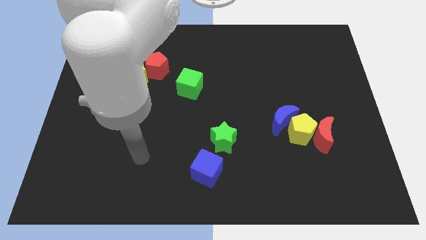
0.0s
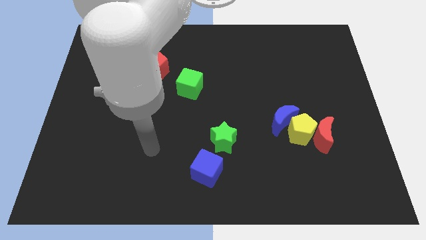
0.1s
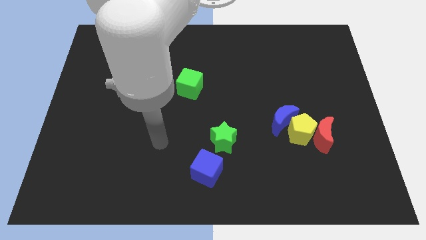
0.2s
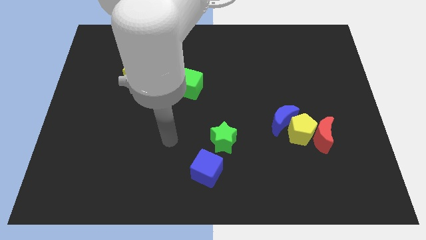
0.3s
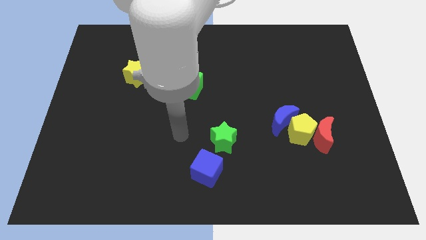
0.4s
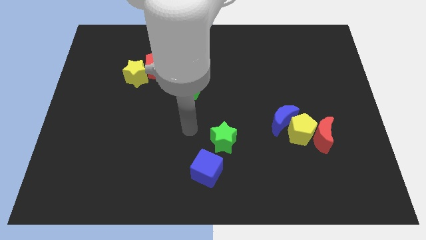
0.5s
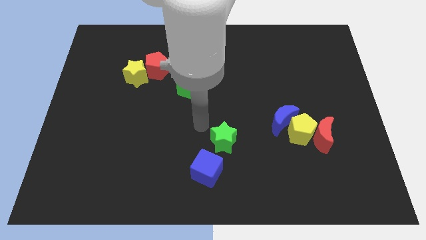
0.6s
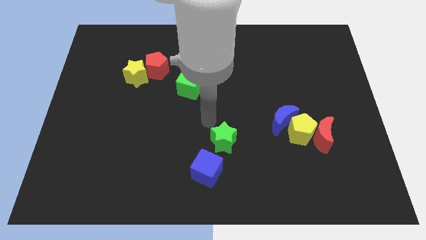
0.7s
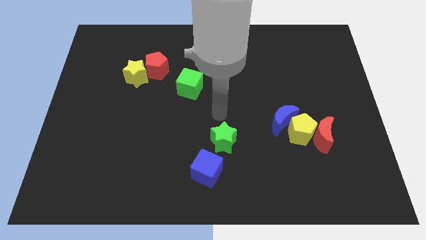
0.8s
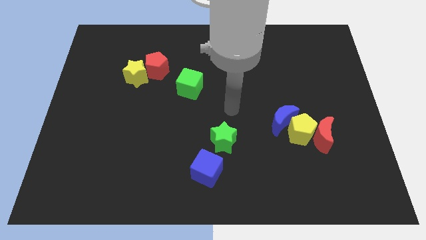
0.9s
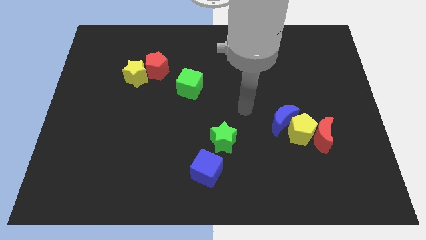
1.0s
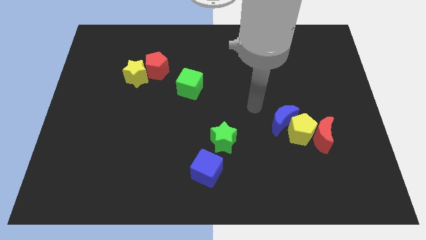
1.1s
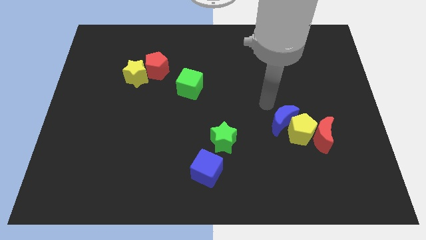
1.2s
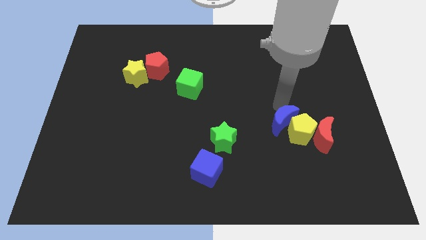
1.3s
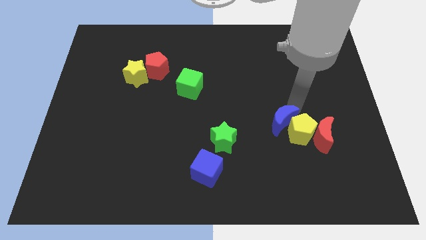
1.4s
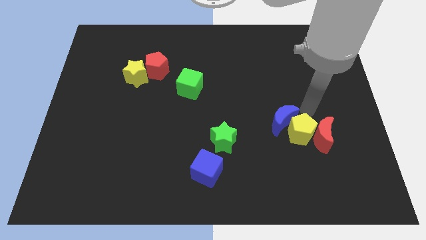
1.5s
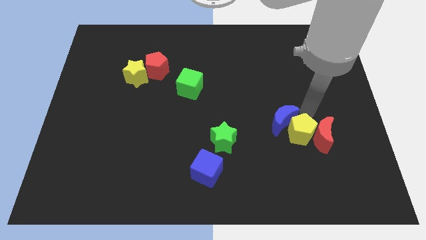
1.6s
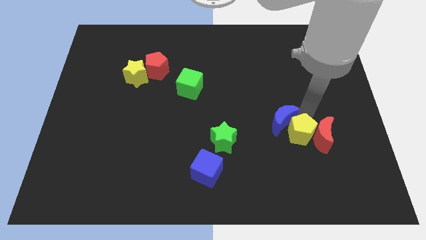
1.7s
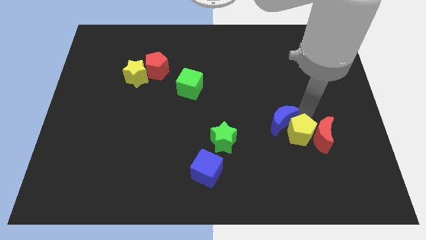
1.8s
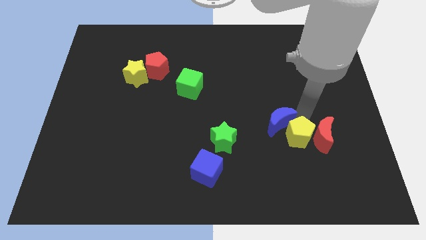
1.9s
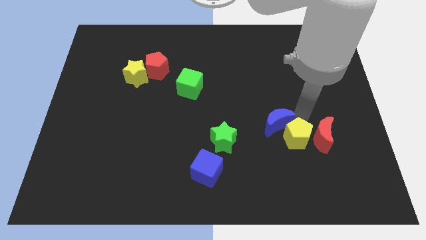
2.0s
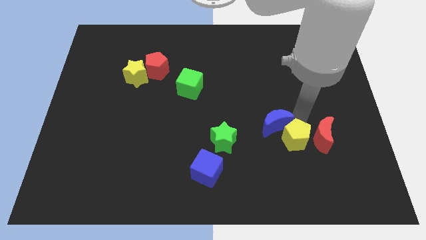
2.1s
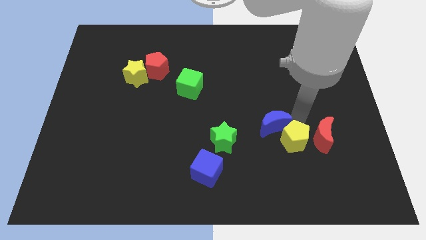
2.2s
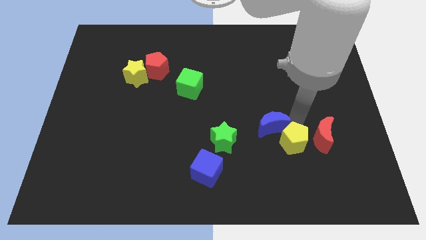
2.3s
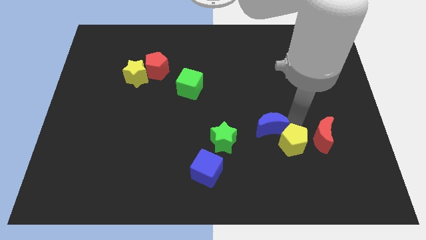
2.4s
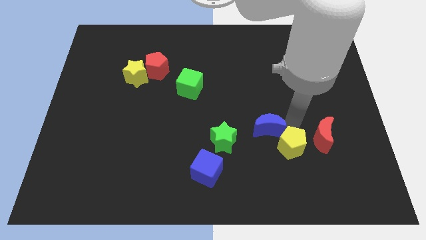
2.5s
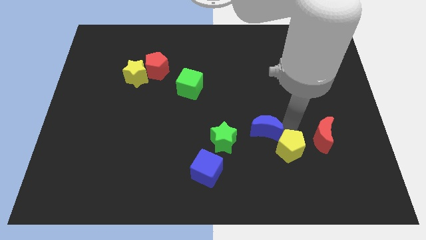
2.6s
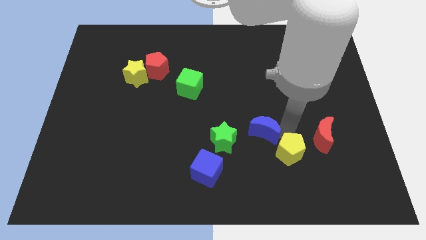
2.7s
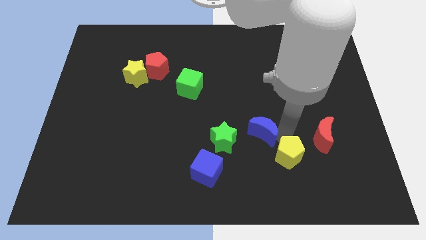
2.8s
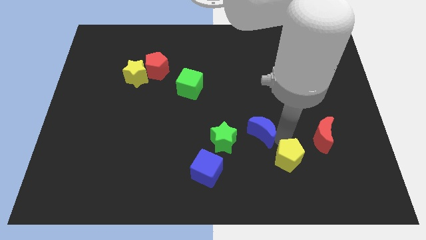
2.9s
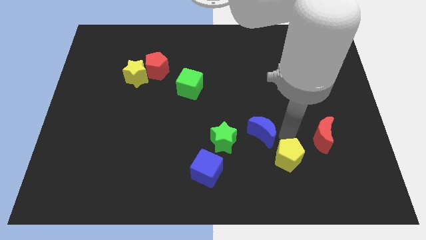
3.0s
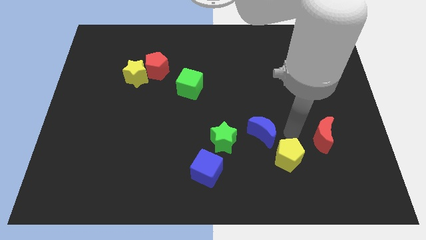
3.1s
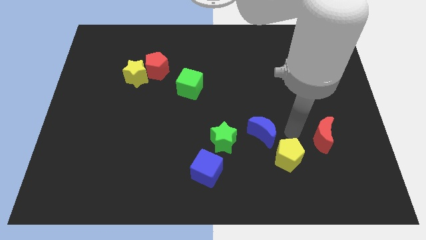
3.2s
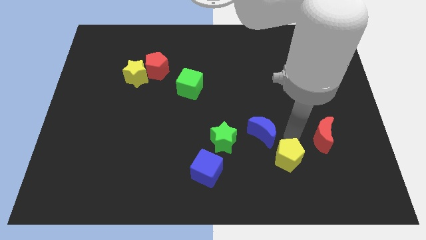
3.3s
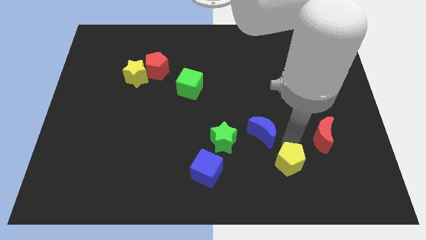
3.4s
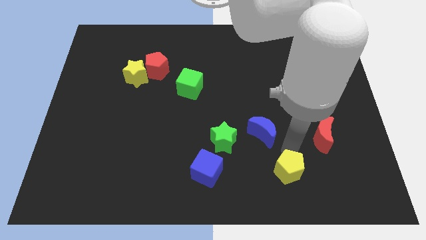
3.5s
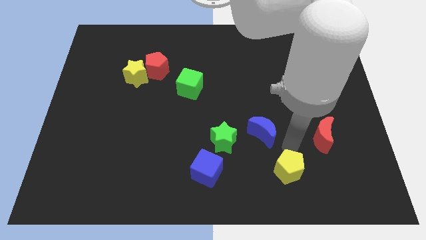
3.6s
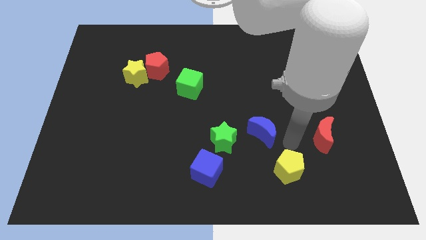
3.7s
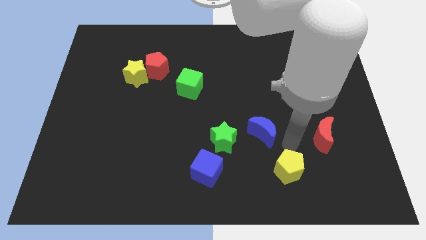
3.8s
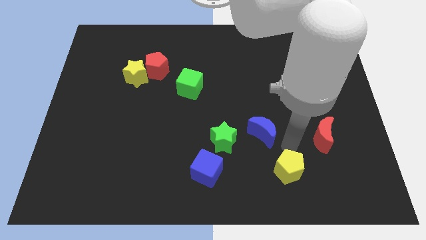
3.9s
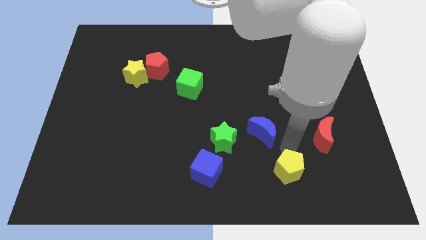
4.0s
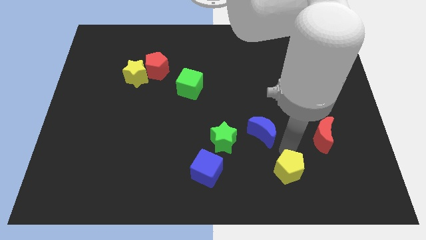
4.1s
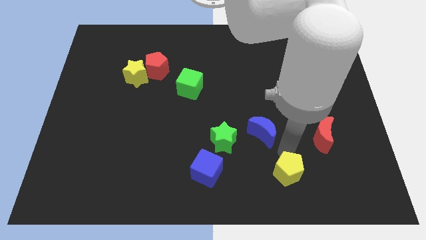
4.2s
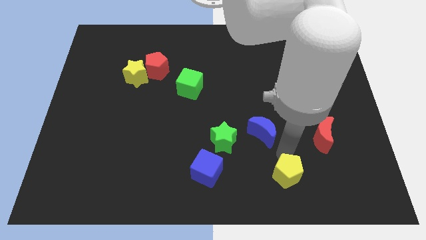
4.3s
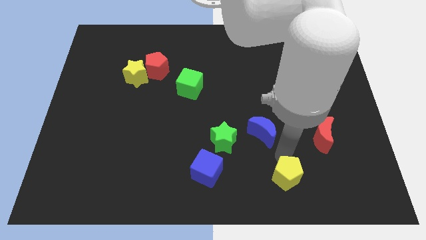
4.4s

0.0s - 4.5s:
separate the yellow pentagon from the blue moon and red moon

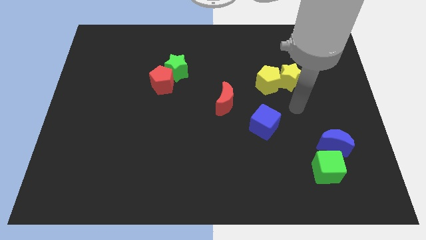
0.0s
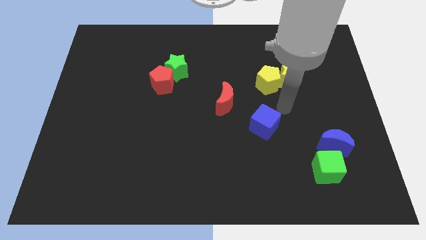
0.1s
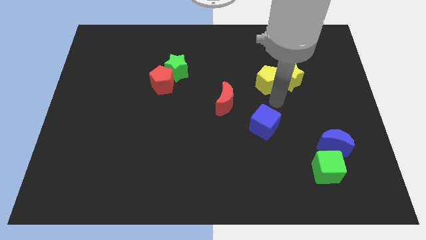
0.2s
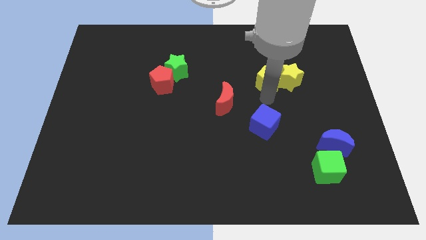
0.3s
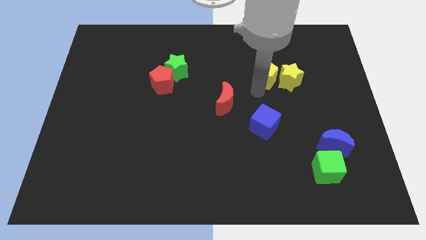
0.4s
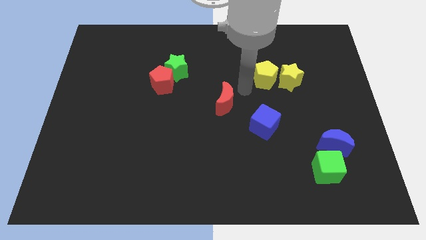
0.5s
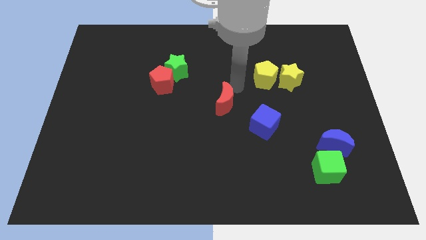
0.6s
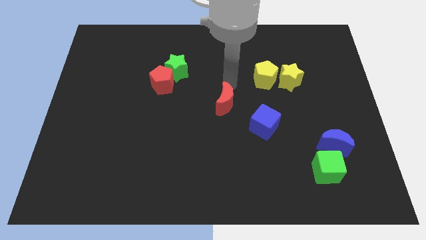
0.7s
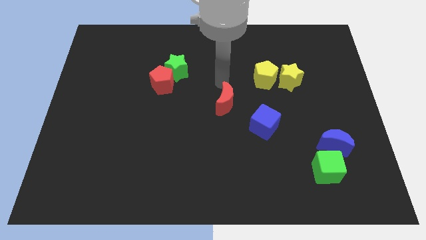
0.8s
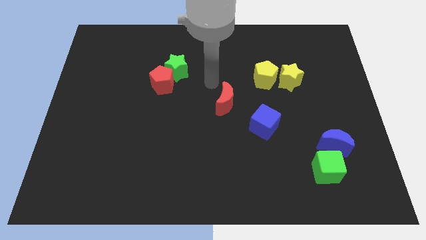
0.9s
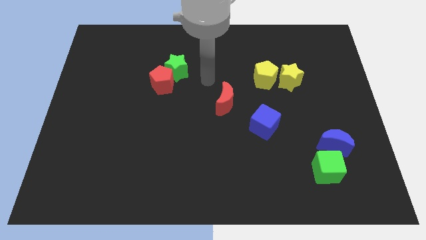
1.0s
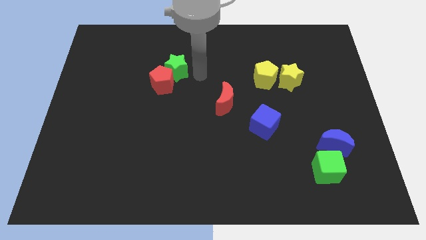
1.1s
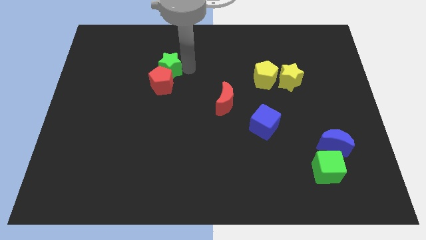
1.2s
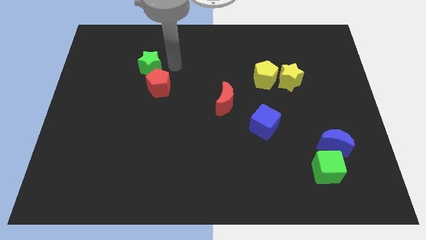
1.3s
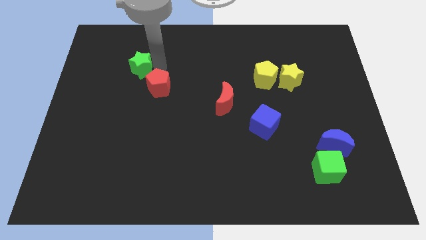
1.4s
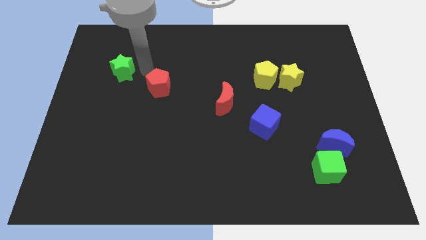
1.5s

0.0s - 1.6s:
move the red pentagon away from the green star

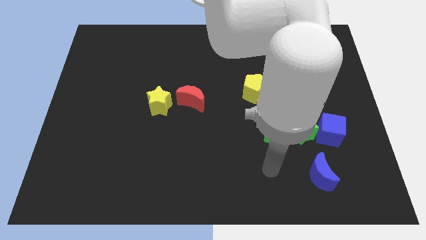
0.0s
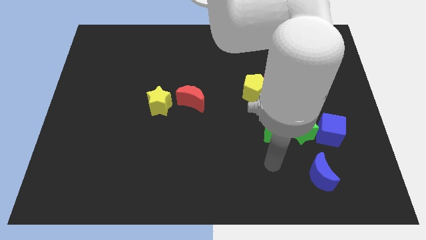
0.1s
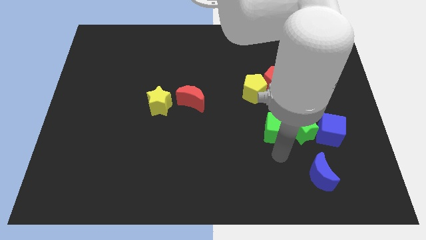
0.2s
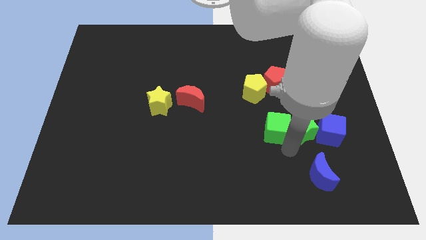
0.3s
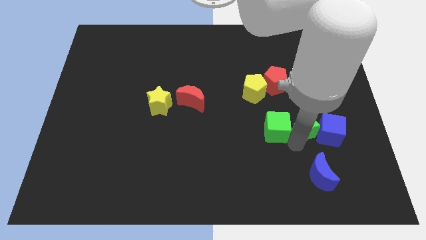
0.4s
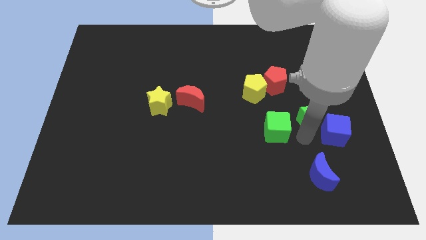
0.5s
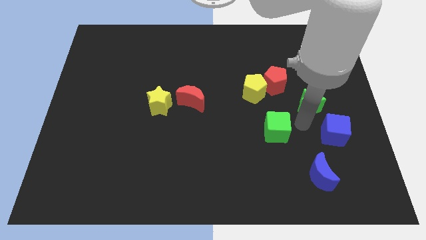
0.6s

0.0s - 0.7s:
move the green cube away from the green star

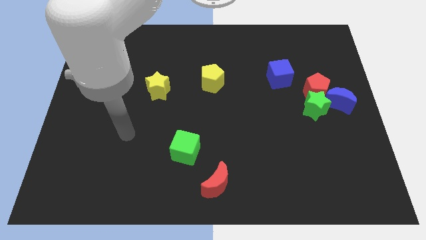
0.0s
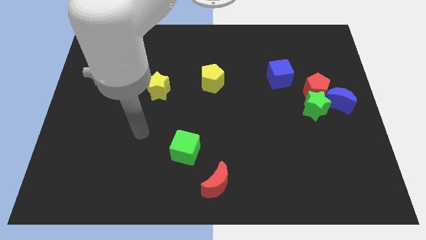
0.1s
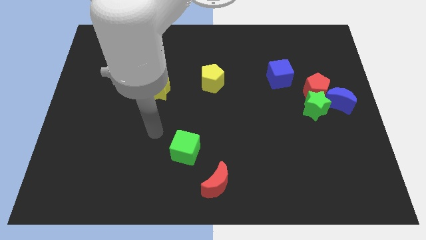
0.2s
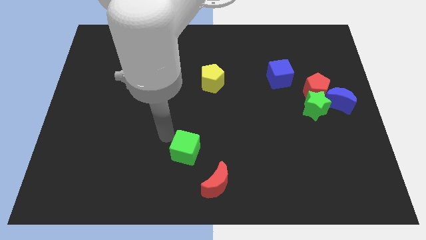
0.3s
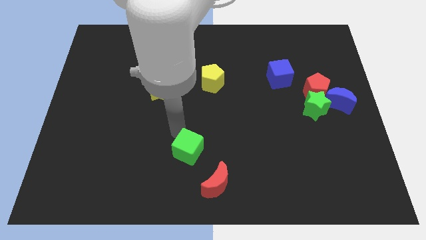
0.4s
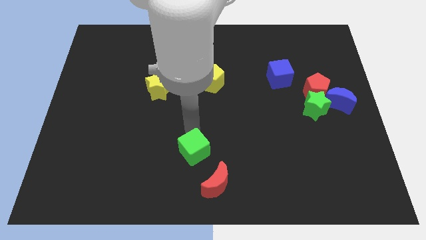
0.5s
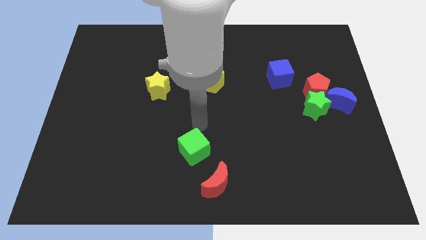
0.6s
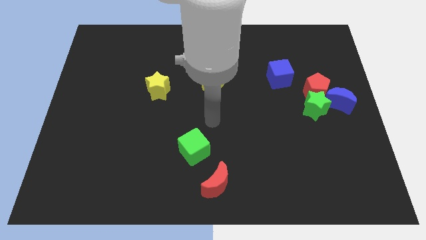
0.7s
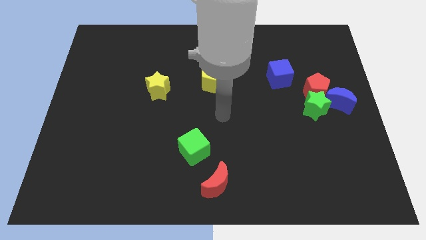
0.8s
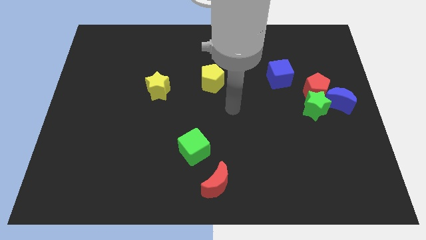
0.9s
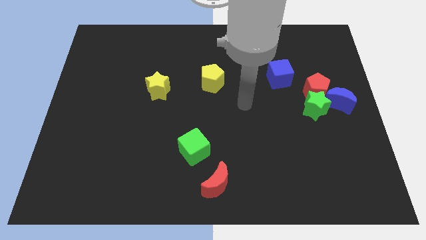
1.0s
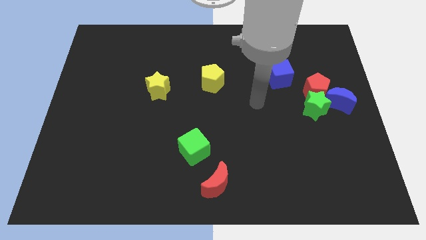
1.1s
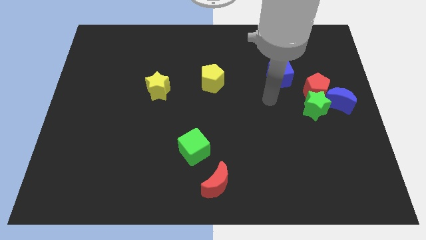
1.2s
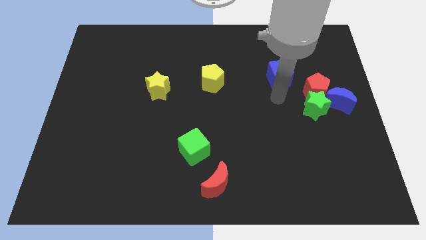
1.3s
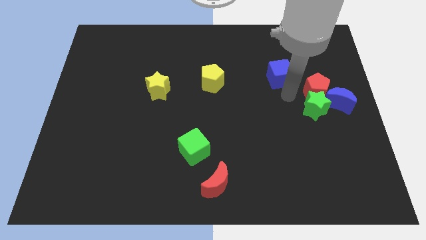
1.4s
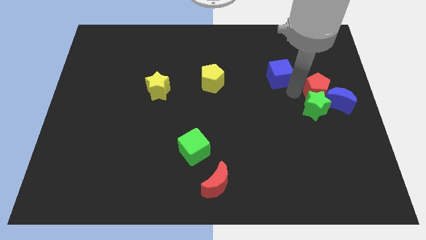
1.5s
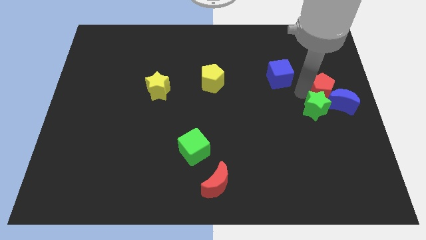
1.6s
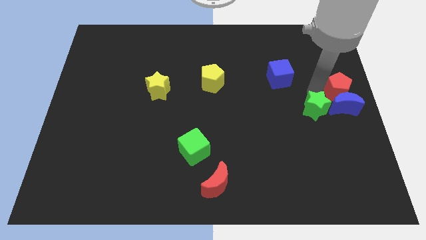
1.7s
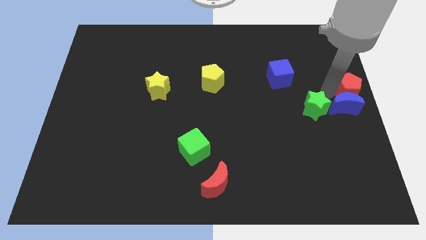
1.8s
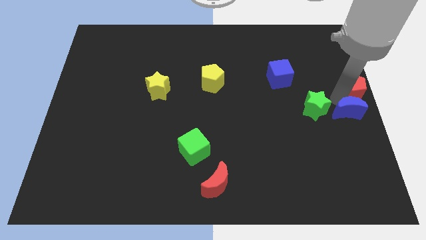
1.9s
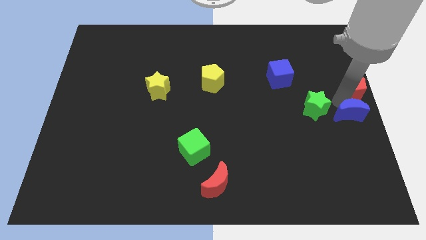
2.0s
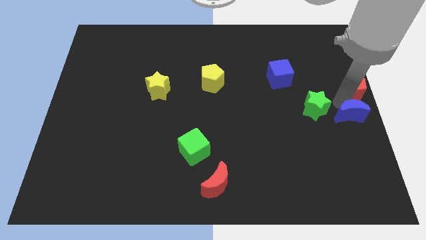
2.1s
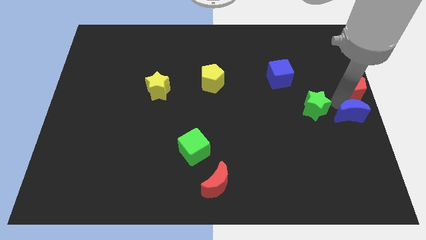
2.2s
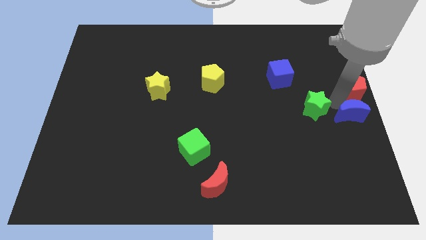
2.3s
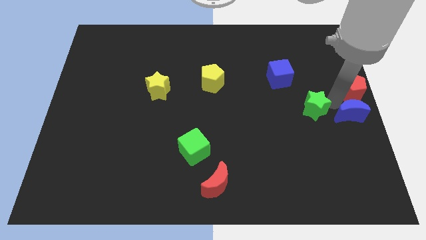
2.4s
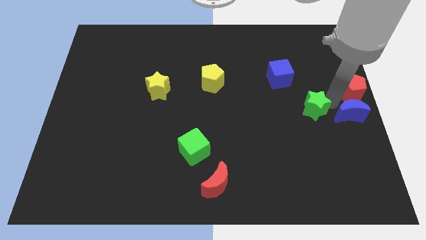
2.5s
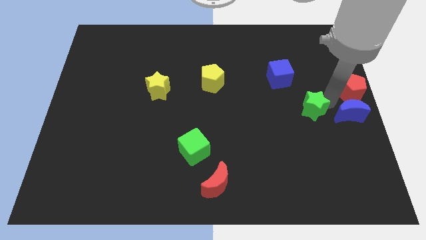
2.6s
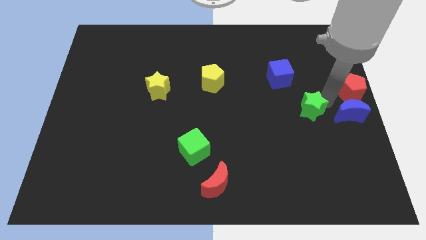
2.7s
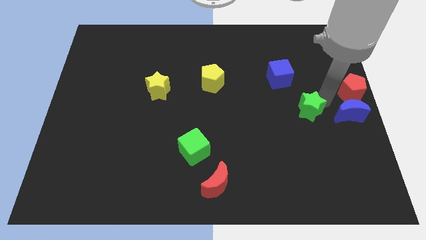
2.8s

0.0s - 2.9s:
separate the green star from the red pentagon and blue moon
